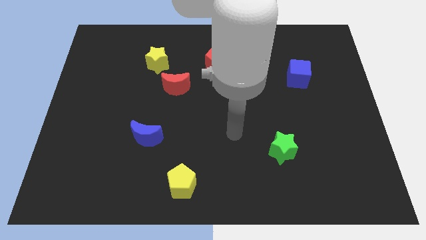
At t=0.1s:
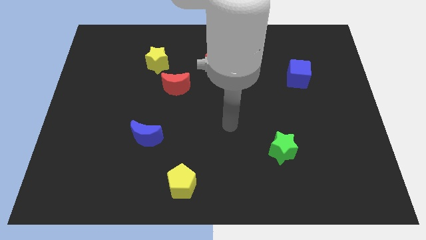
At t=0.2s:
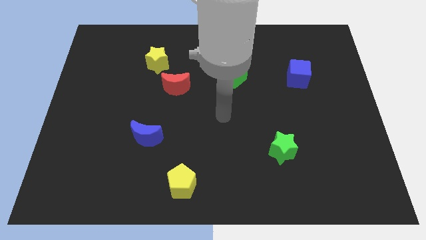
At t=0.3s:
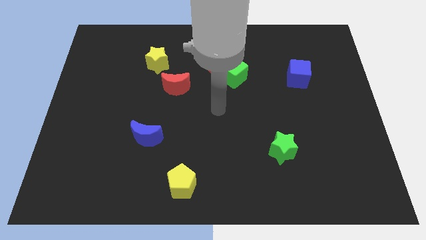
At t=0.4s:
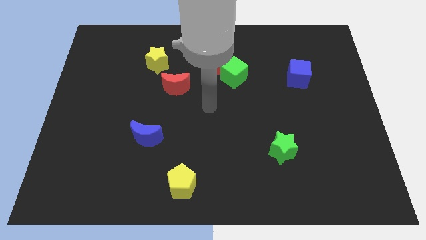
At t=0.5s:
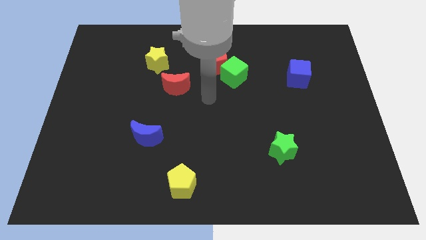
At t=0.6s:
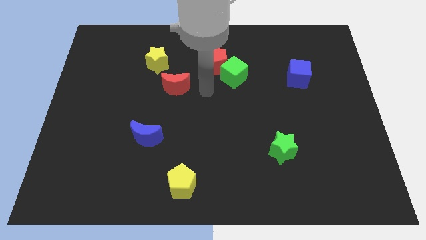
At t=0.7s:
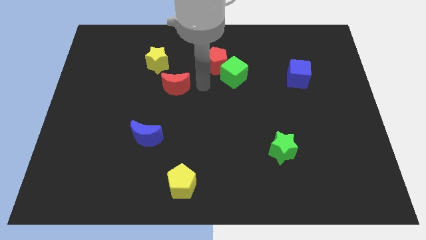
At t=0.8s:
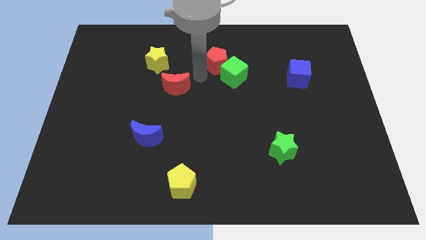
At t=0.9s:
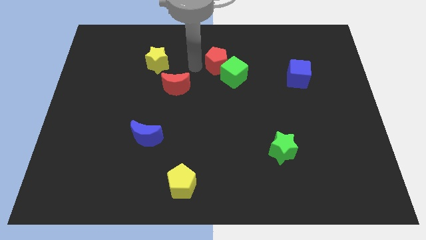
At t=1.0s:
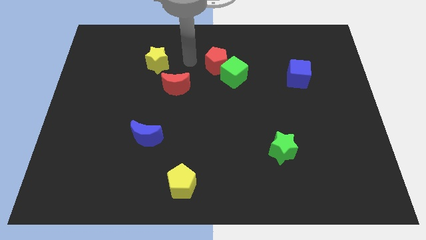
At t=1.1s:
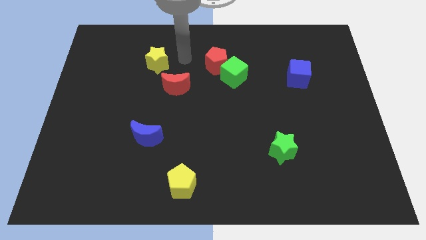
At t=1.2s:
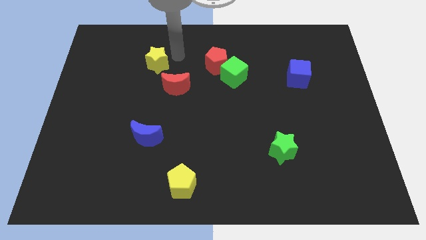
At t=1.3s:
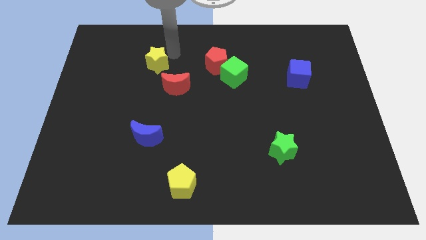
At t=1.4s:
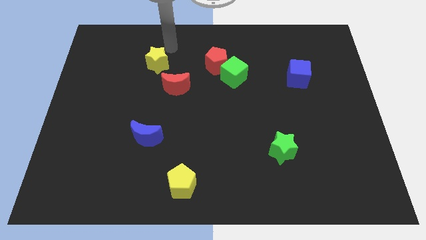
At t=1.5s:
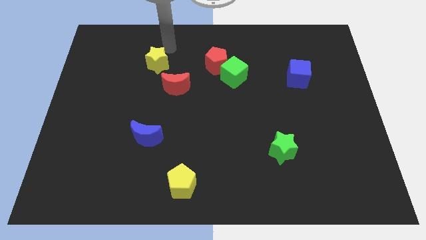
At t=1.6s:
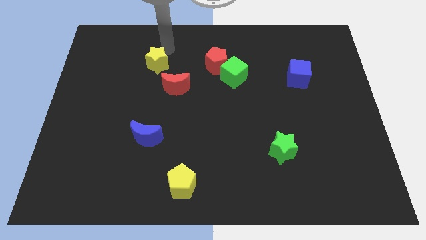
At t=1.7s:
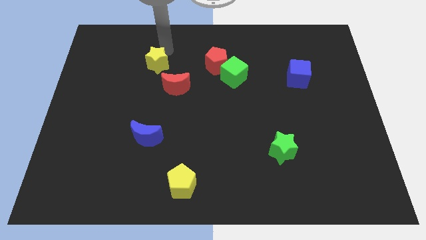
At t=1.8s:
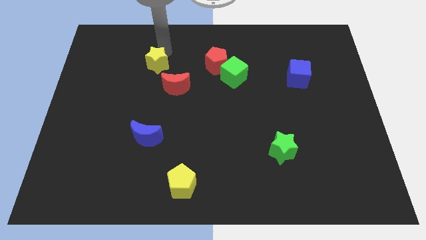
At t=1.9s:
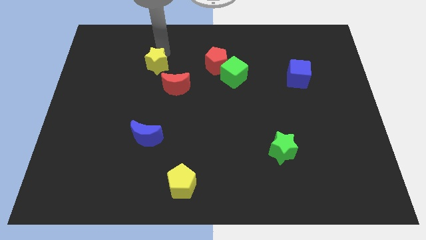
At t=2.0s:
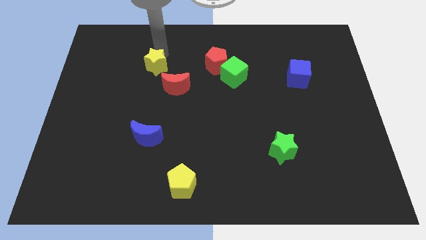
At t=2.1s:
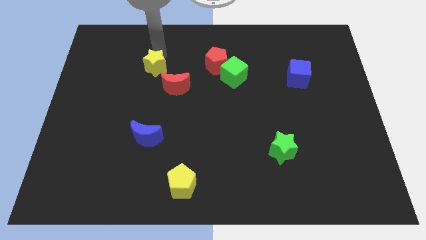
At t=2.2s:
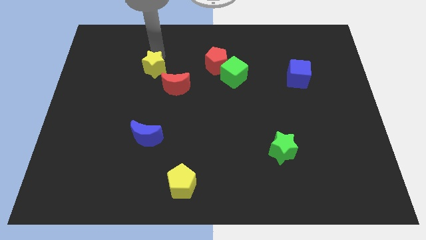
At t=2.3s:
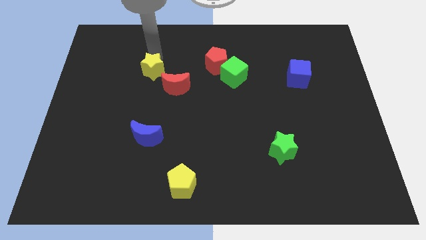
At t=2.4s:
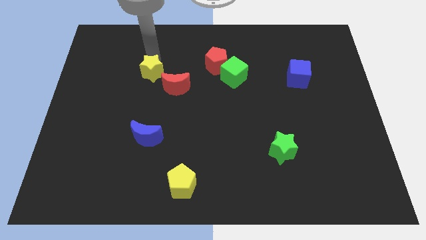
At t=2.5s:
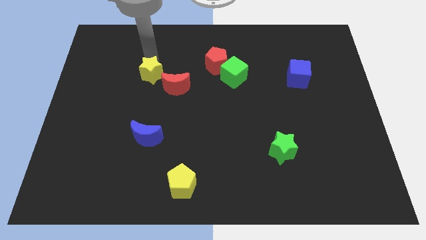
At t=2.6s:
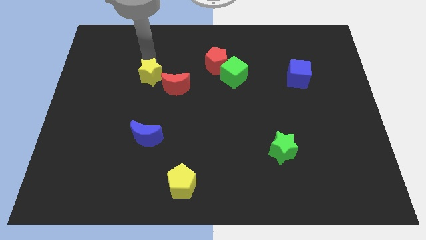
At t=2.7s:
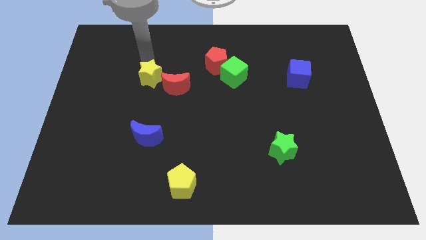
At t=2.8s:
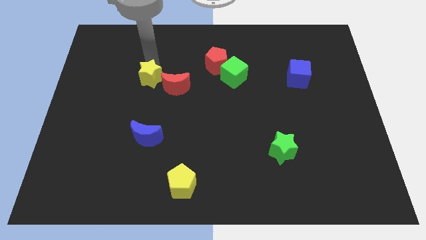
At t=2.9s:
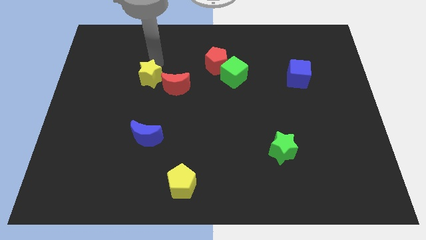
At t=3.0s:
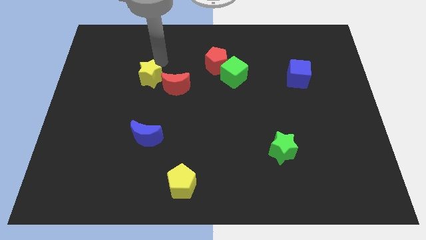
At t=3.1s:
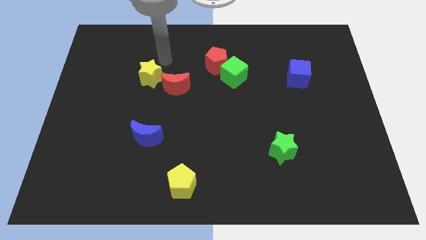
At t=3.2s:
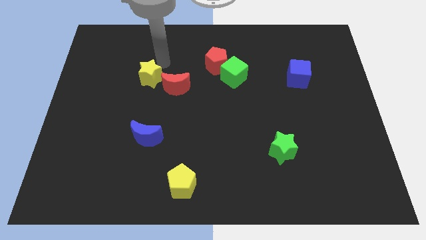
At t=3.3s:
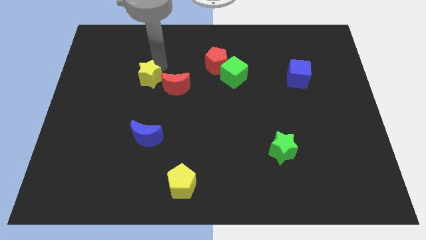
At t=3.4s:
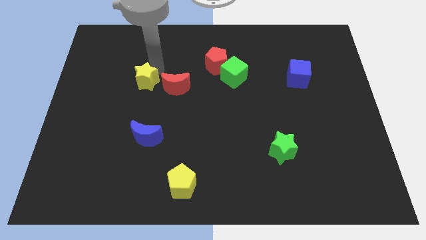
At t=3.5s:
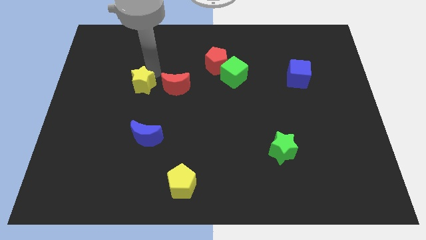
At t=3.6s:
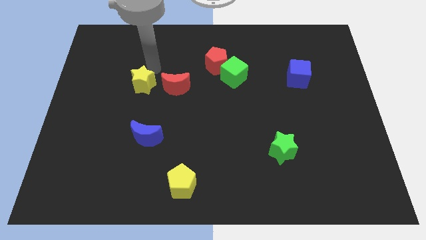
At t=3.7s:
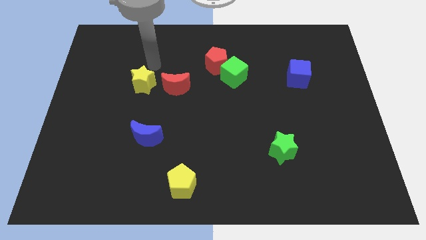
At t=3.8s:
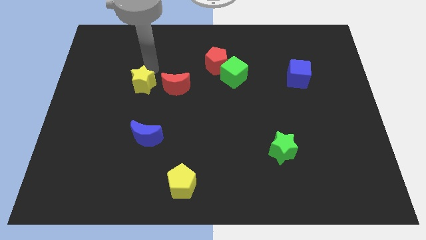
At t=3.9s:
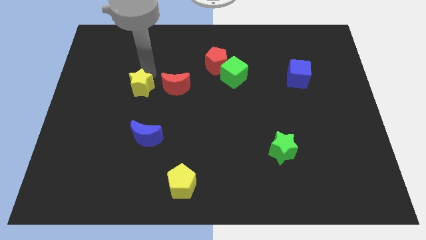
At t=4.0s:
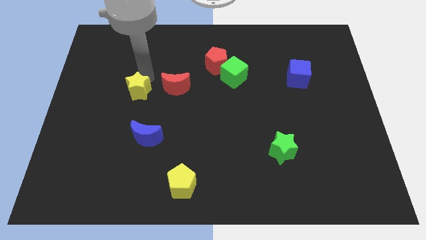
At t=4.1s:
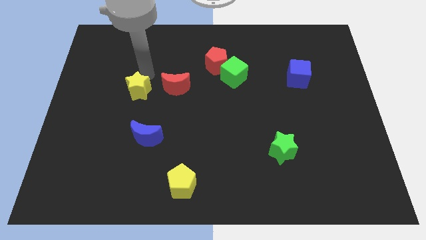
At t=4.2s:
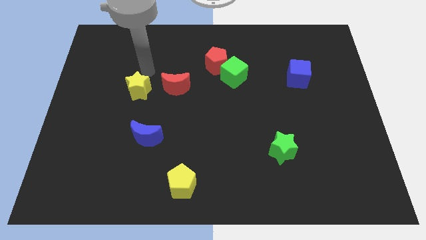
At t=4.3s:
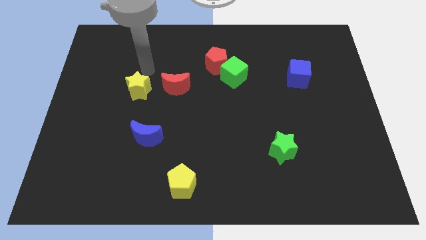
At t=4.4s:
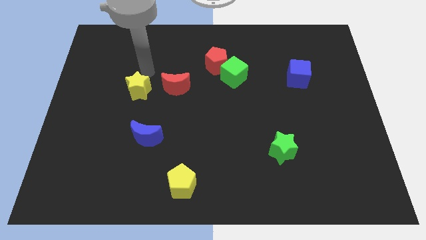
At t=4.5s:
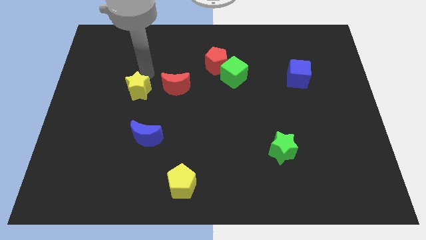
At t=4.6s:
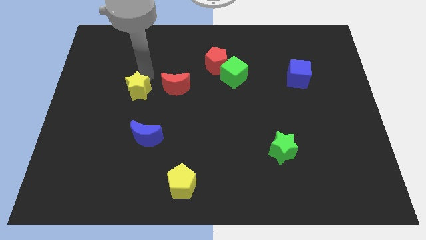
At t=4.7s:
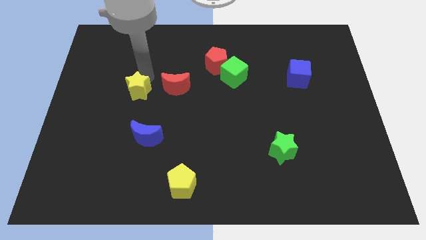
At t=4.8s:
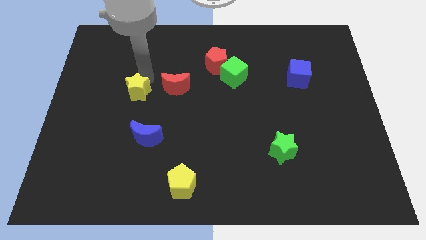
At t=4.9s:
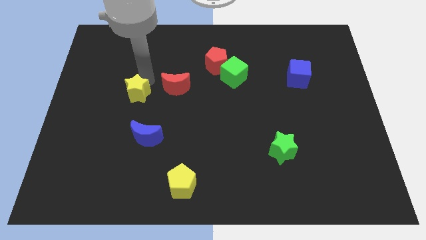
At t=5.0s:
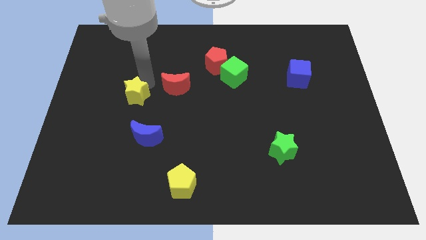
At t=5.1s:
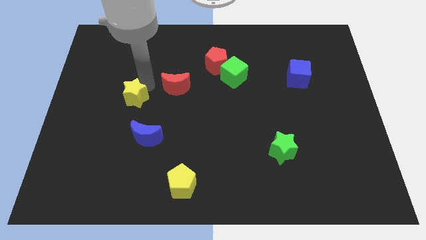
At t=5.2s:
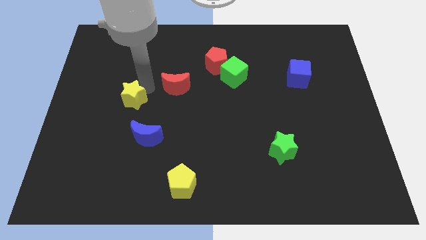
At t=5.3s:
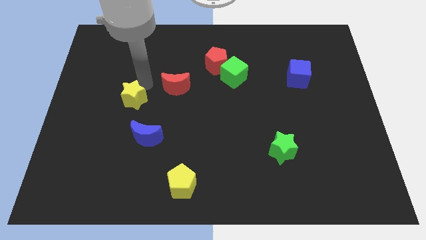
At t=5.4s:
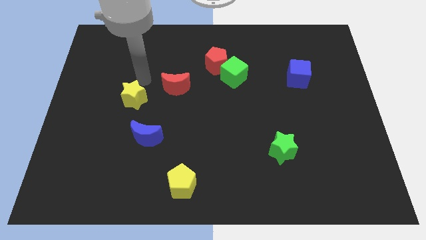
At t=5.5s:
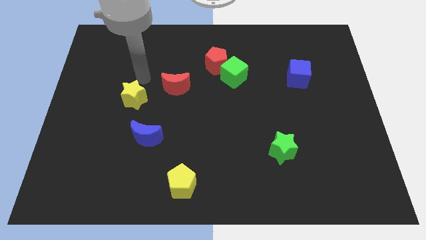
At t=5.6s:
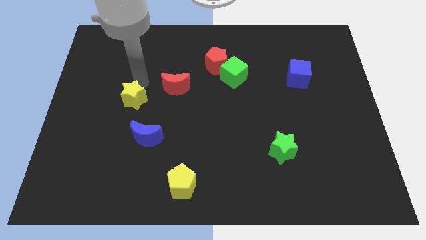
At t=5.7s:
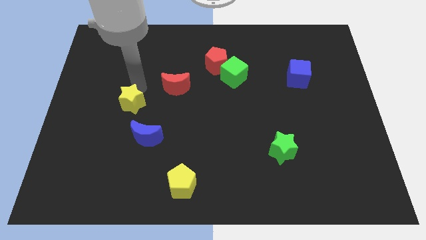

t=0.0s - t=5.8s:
slide the yellow star to the top left side of the blue moon

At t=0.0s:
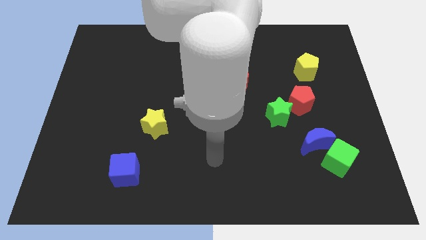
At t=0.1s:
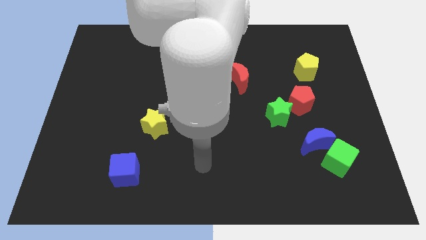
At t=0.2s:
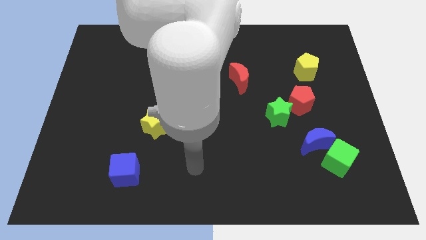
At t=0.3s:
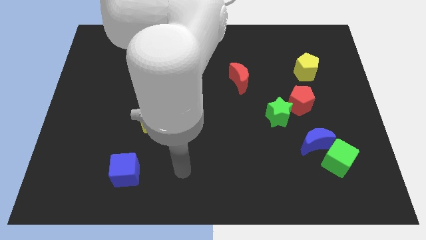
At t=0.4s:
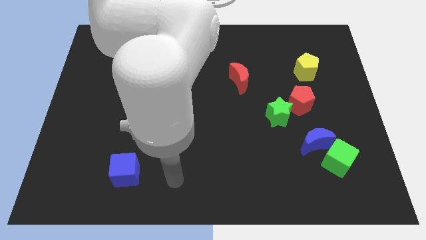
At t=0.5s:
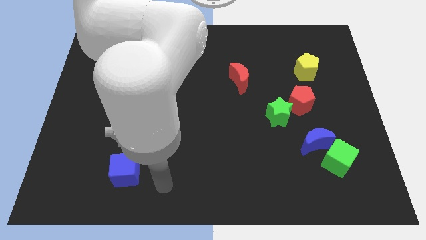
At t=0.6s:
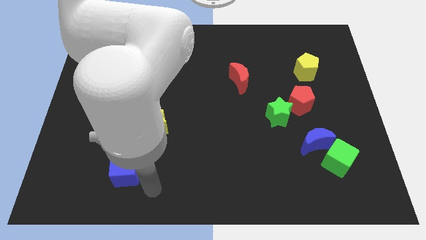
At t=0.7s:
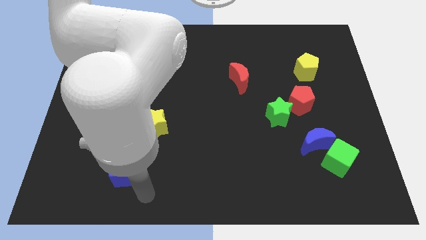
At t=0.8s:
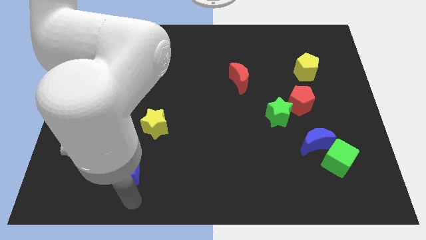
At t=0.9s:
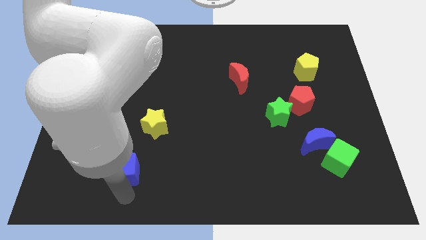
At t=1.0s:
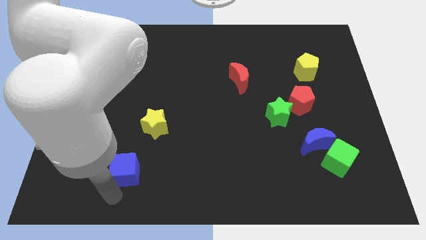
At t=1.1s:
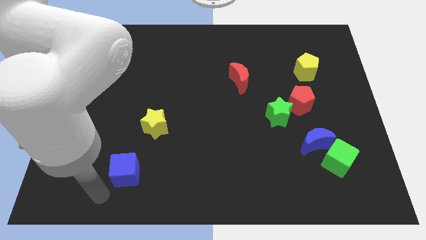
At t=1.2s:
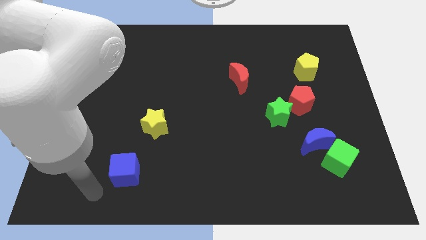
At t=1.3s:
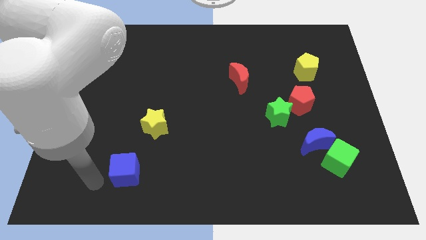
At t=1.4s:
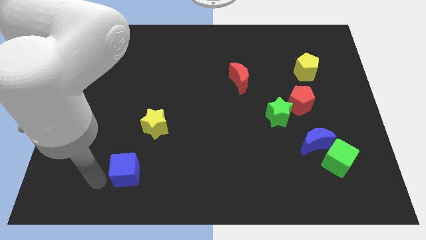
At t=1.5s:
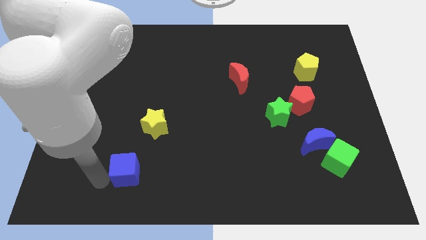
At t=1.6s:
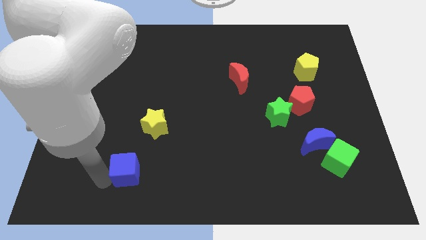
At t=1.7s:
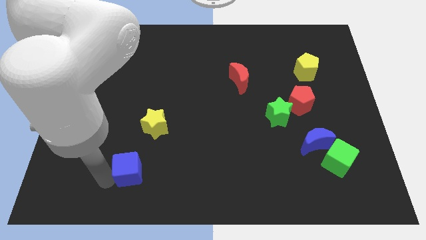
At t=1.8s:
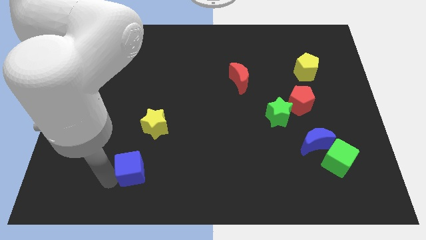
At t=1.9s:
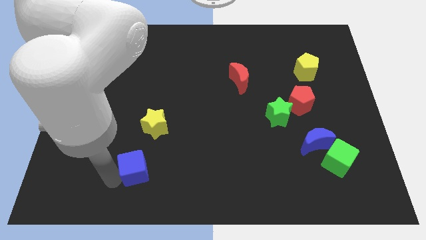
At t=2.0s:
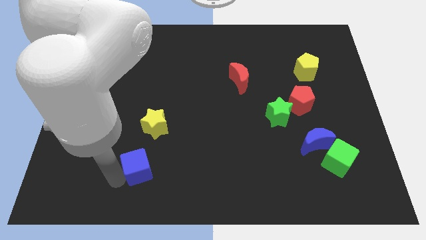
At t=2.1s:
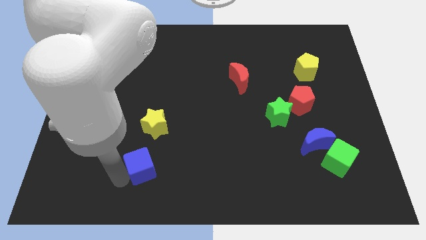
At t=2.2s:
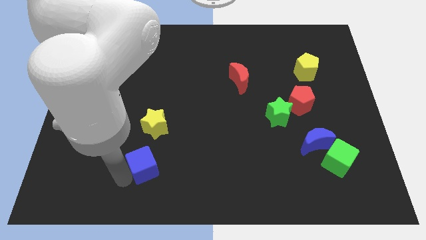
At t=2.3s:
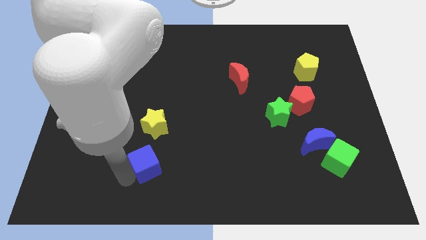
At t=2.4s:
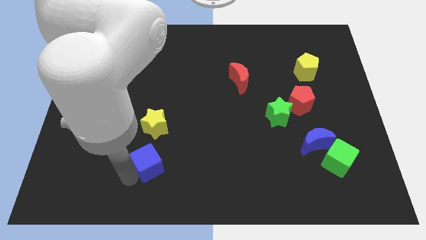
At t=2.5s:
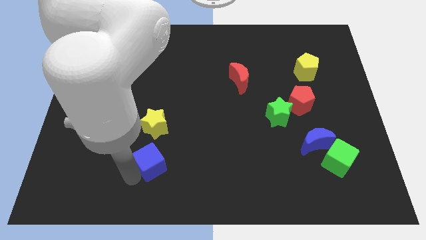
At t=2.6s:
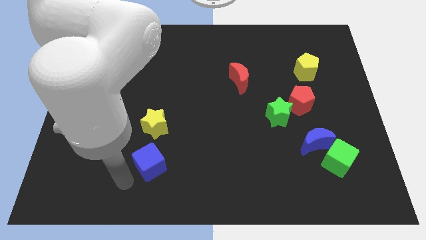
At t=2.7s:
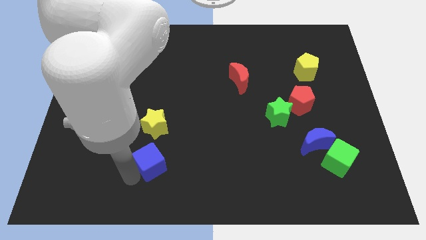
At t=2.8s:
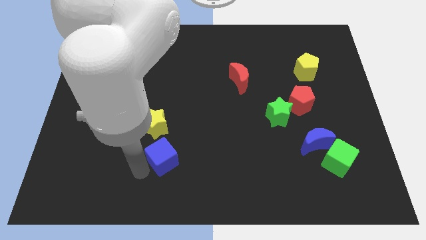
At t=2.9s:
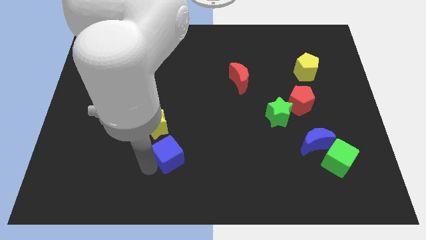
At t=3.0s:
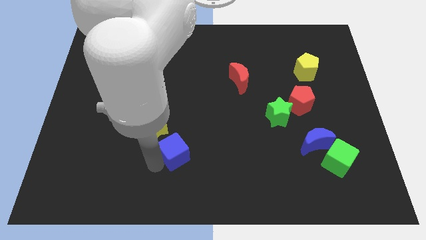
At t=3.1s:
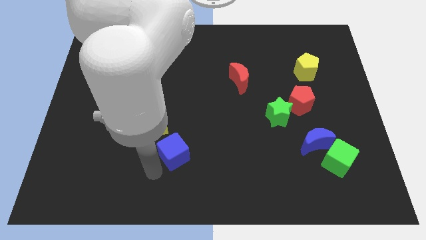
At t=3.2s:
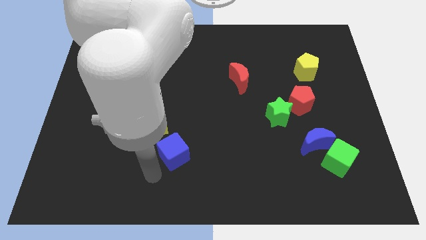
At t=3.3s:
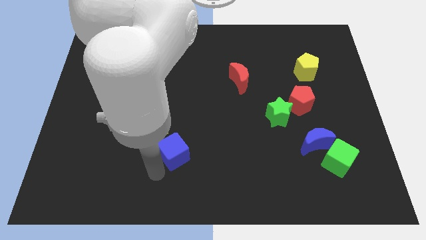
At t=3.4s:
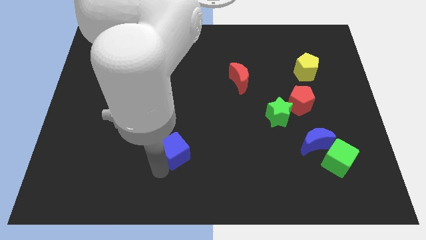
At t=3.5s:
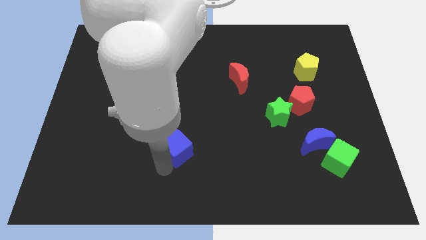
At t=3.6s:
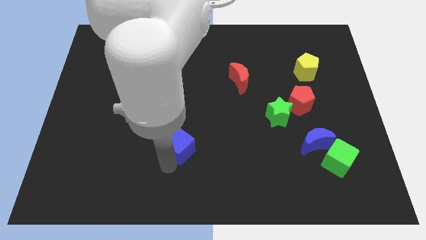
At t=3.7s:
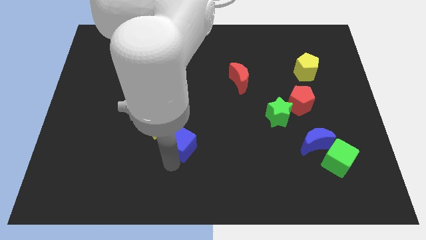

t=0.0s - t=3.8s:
move the blue cube to the right side of the yellow star
